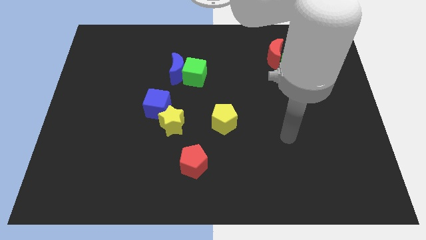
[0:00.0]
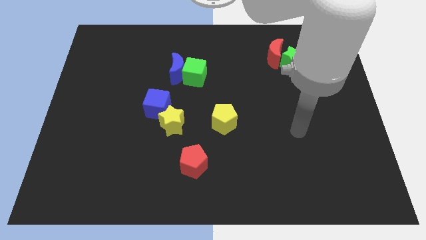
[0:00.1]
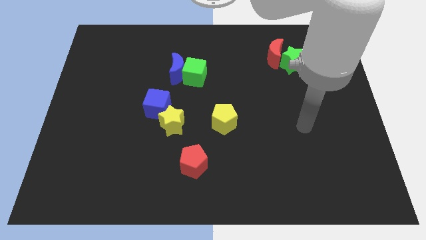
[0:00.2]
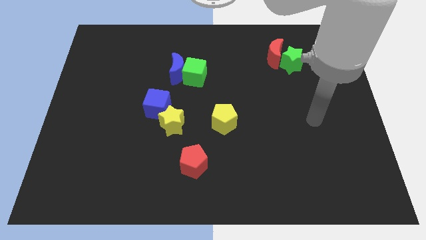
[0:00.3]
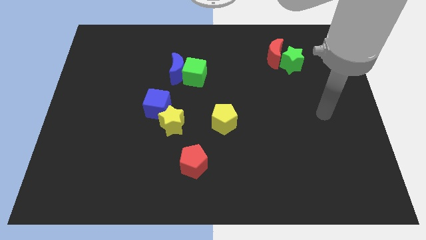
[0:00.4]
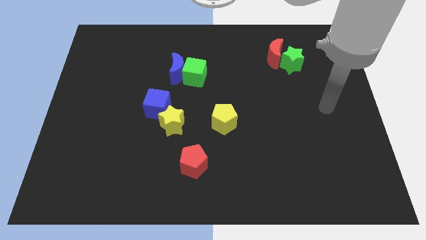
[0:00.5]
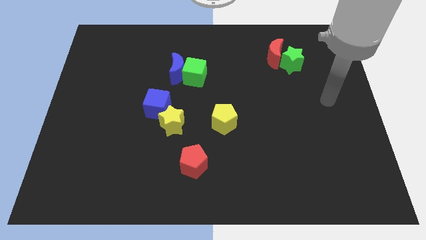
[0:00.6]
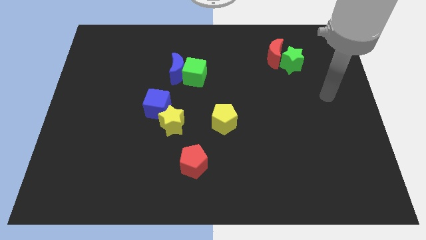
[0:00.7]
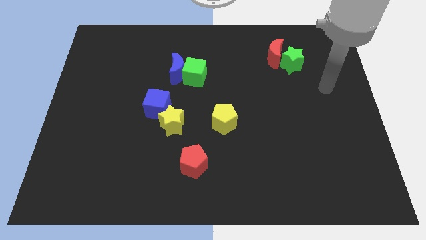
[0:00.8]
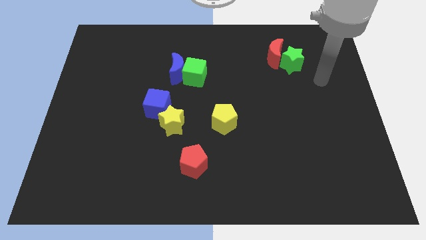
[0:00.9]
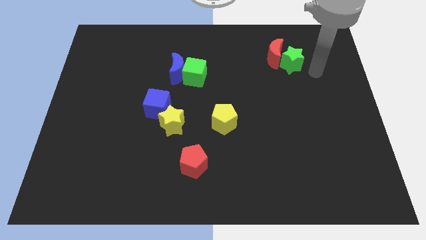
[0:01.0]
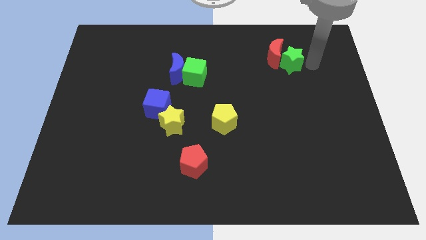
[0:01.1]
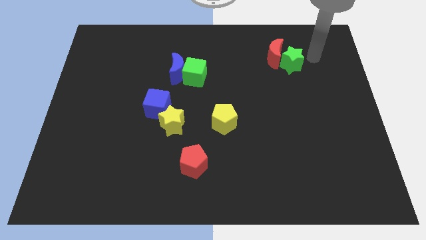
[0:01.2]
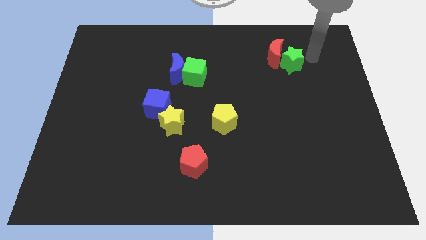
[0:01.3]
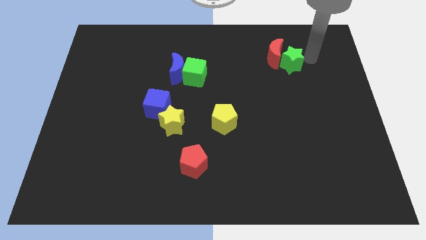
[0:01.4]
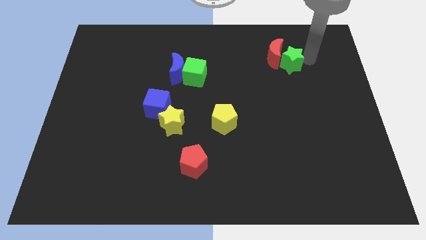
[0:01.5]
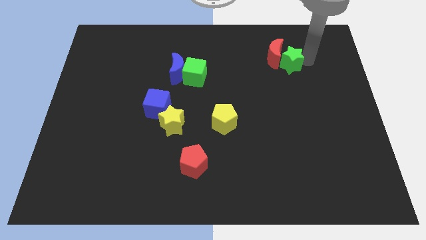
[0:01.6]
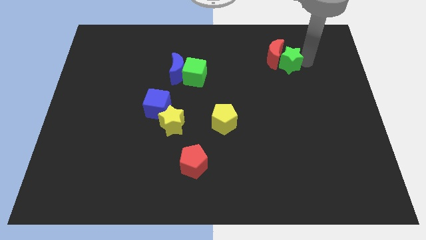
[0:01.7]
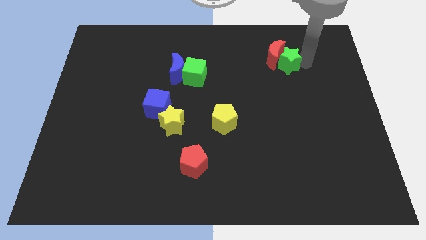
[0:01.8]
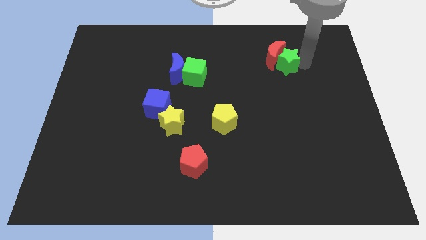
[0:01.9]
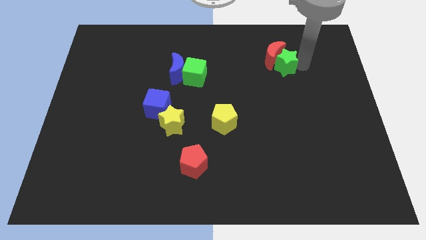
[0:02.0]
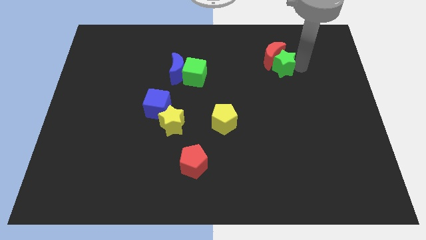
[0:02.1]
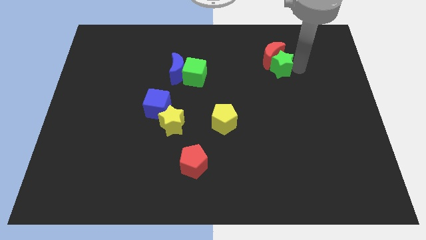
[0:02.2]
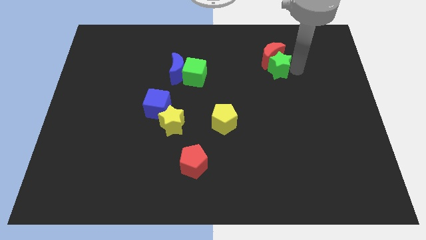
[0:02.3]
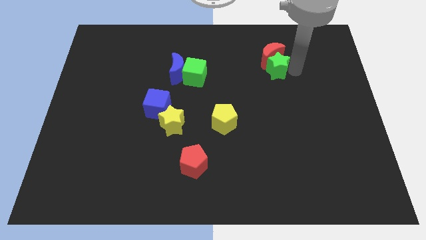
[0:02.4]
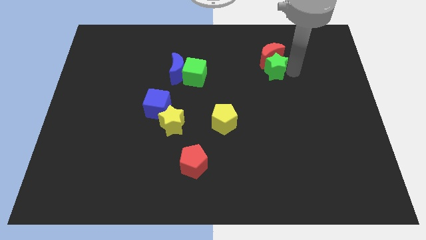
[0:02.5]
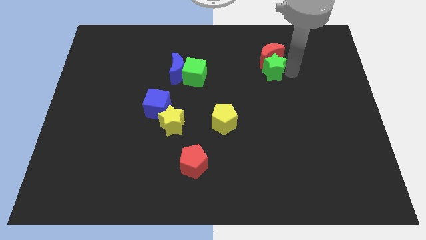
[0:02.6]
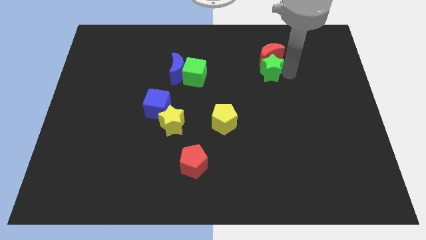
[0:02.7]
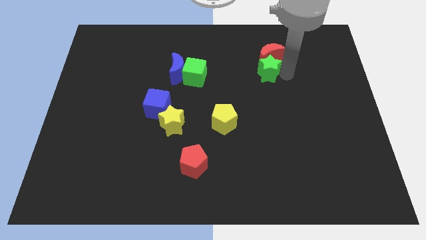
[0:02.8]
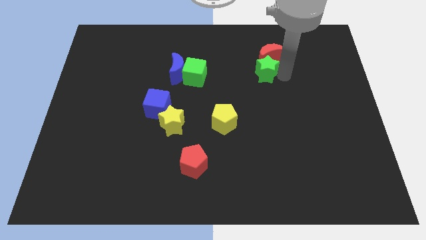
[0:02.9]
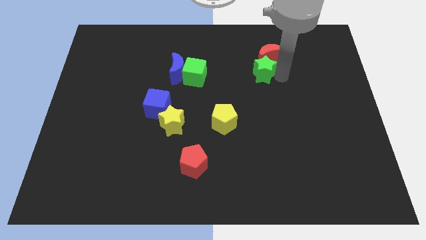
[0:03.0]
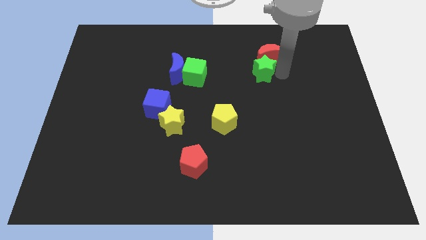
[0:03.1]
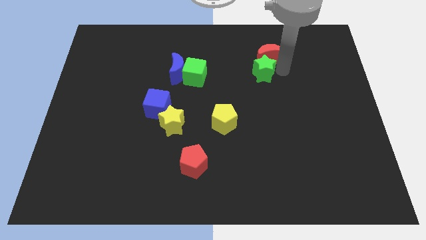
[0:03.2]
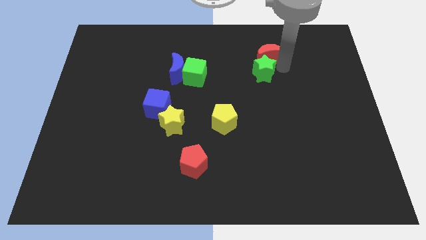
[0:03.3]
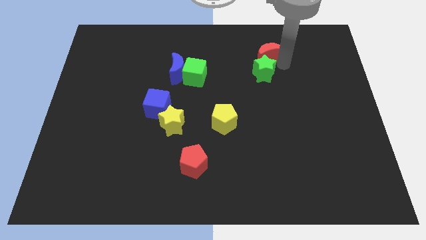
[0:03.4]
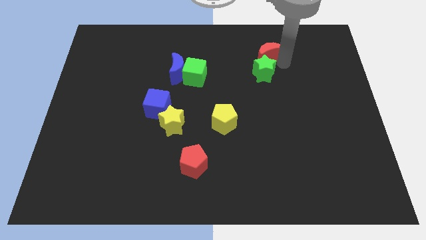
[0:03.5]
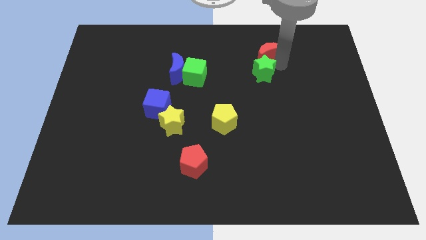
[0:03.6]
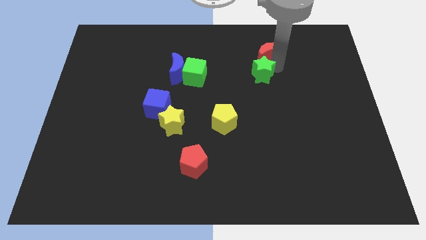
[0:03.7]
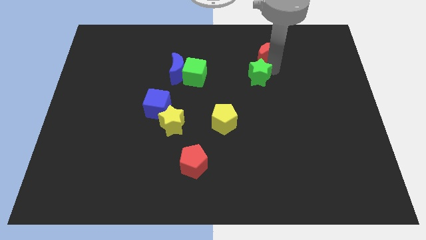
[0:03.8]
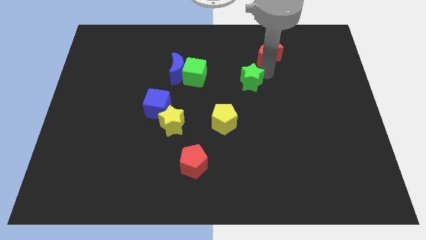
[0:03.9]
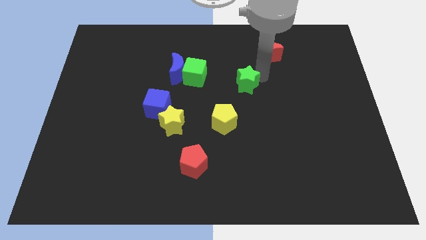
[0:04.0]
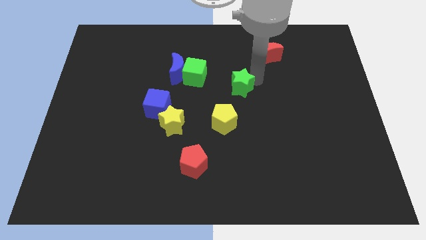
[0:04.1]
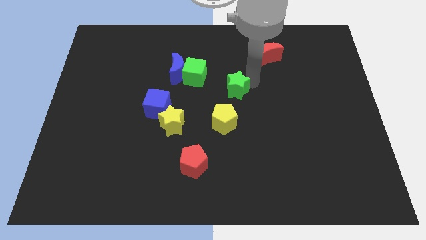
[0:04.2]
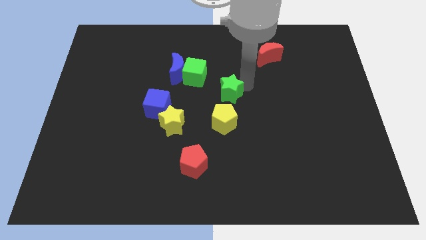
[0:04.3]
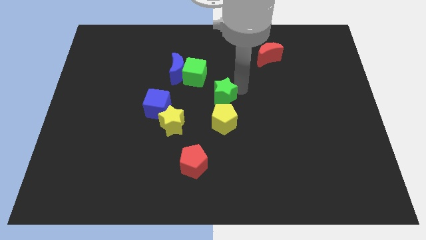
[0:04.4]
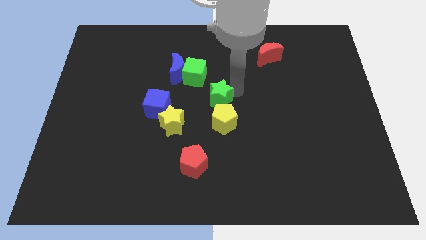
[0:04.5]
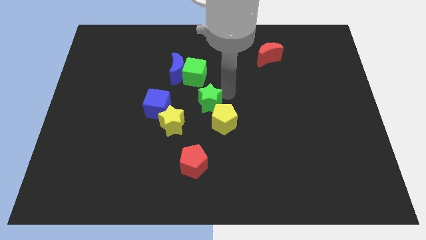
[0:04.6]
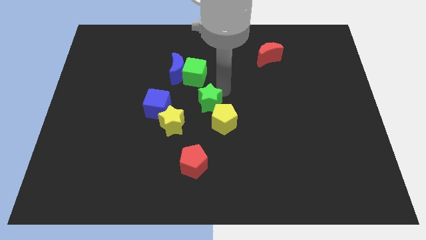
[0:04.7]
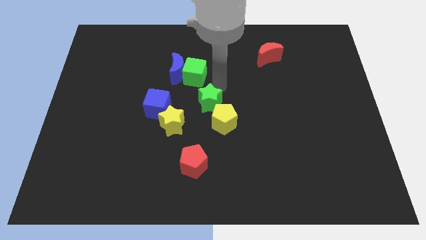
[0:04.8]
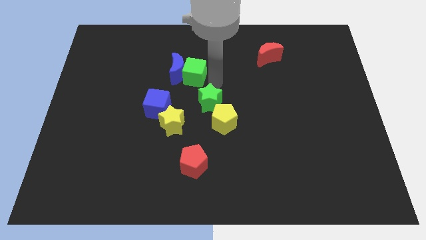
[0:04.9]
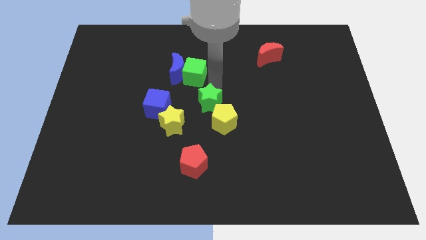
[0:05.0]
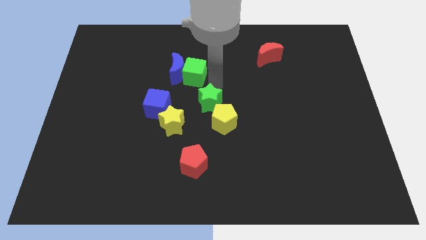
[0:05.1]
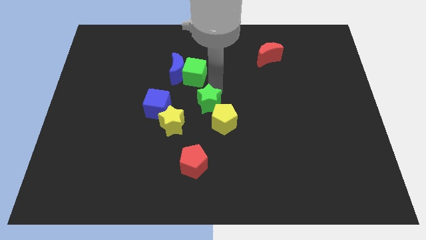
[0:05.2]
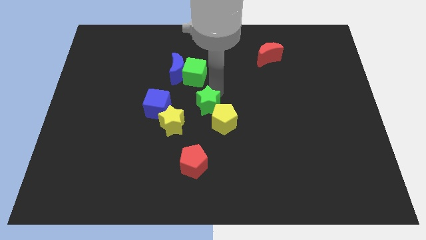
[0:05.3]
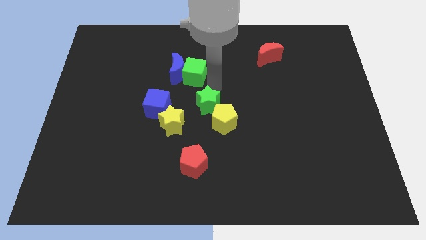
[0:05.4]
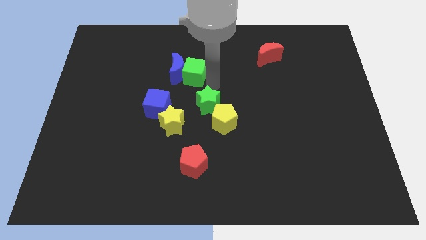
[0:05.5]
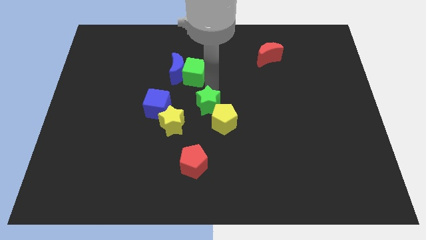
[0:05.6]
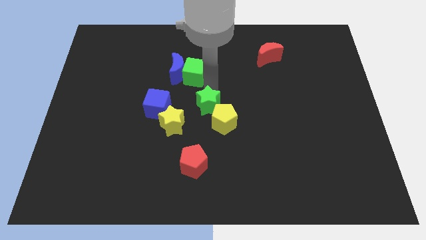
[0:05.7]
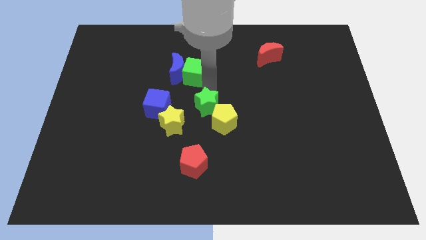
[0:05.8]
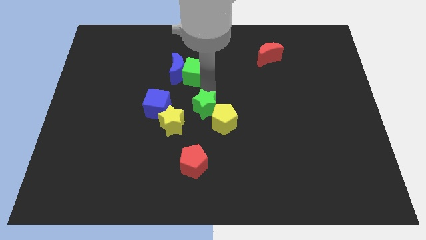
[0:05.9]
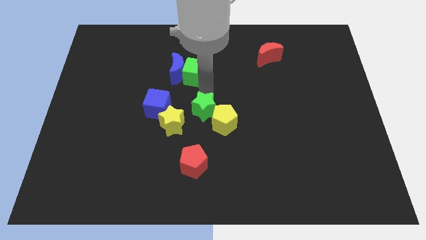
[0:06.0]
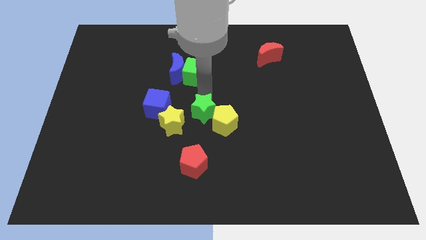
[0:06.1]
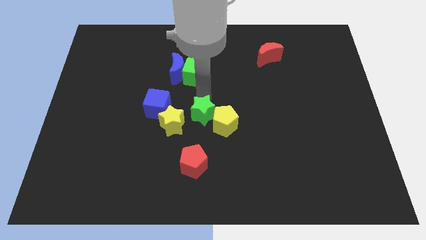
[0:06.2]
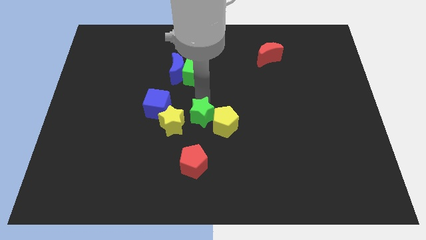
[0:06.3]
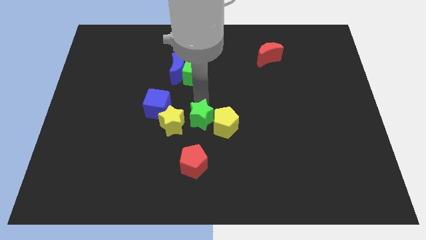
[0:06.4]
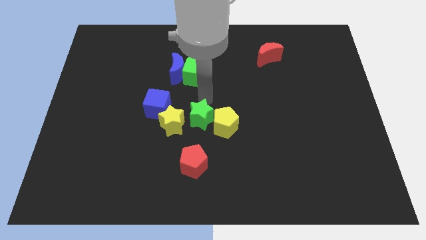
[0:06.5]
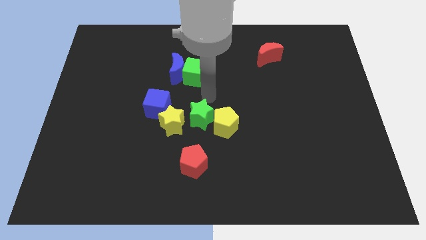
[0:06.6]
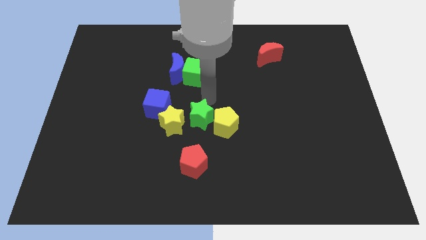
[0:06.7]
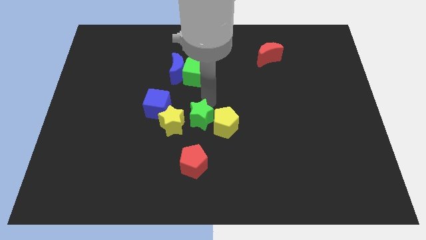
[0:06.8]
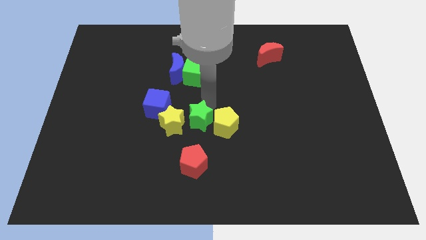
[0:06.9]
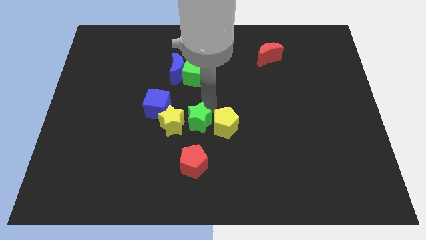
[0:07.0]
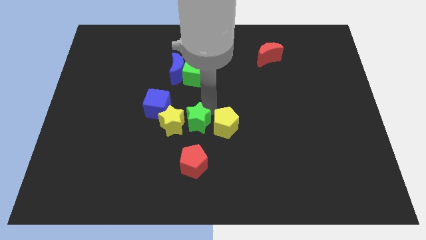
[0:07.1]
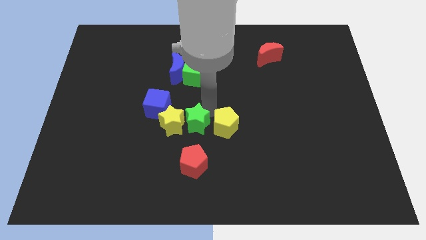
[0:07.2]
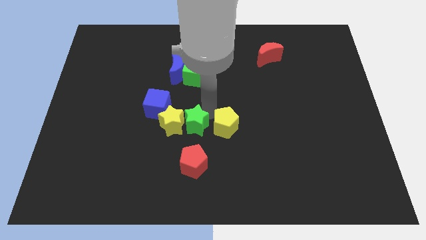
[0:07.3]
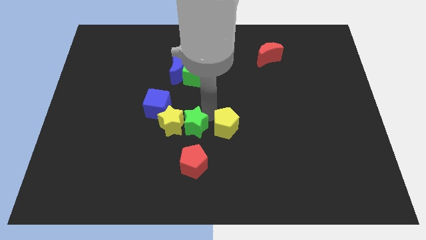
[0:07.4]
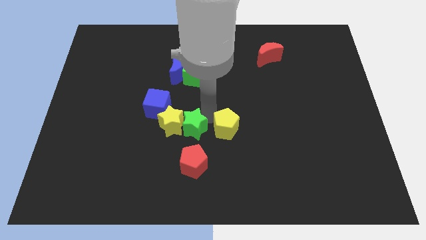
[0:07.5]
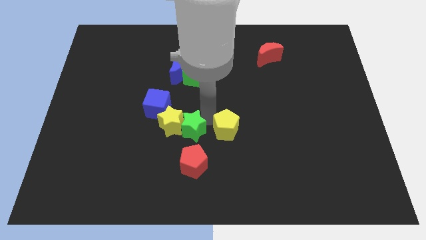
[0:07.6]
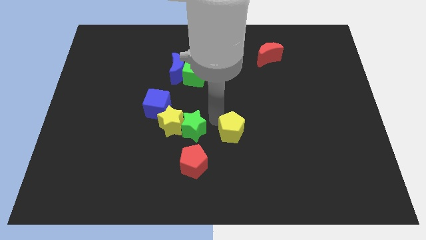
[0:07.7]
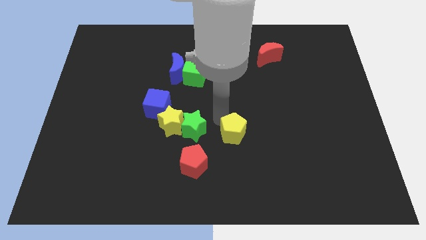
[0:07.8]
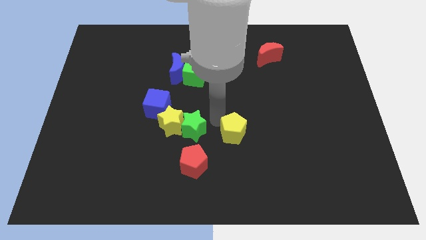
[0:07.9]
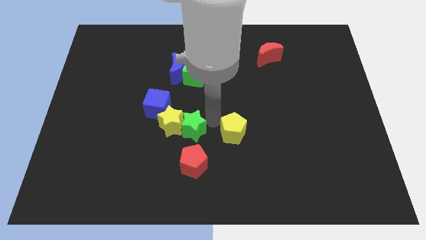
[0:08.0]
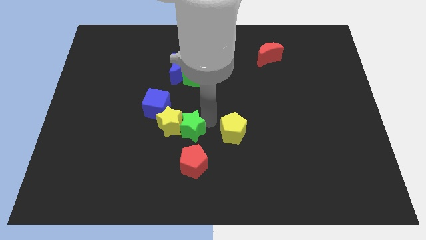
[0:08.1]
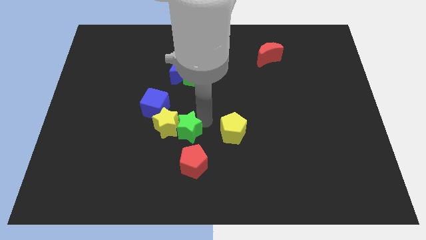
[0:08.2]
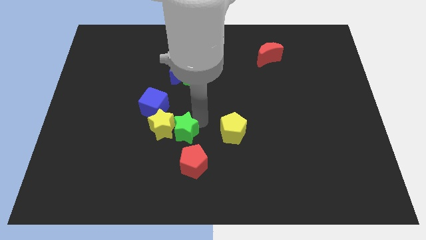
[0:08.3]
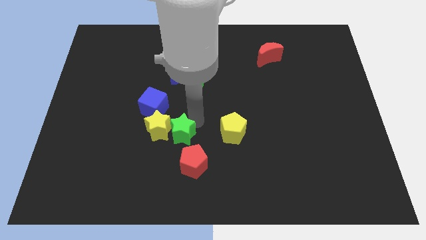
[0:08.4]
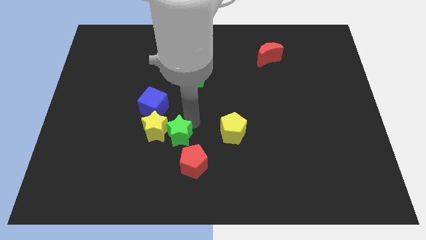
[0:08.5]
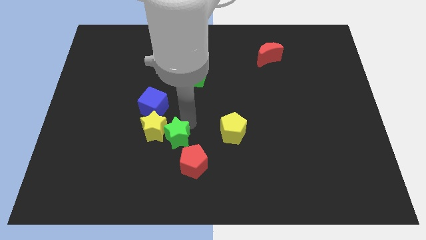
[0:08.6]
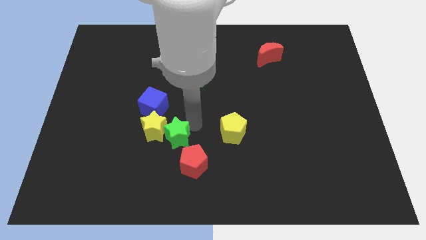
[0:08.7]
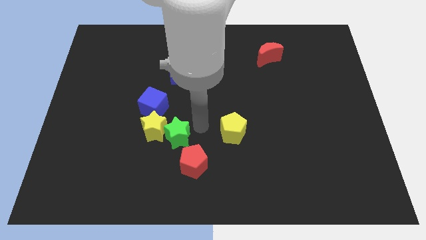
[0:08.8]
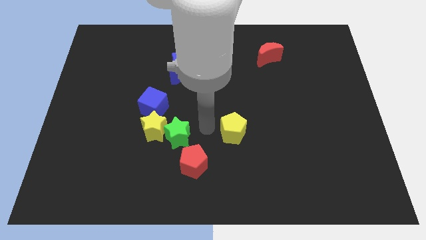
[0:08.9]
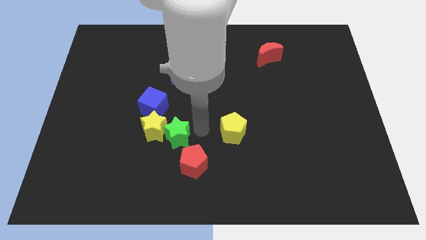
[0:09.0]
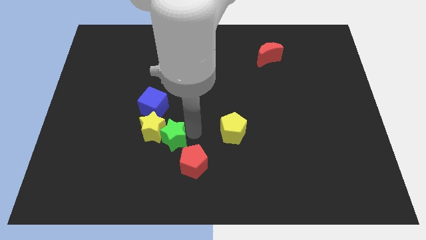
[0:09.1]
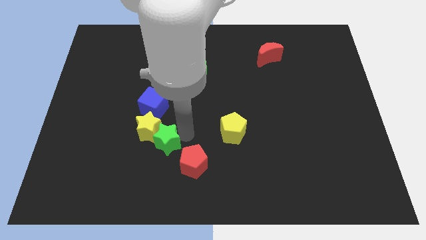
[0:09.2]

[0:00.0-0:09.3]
push the green star to the bottom side of the blue cube
